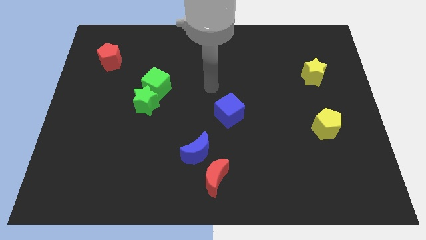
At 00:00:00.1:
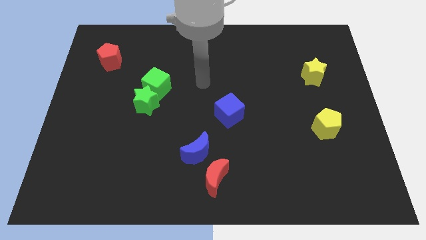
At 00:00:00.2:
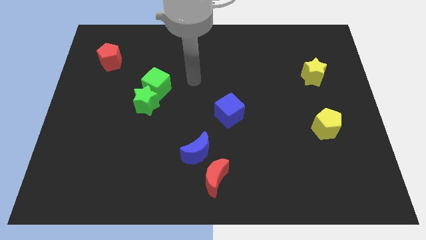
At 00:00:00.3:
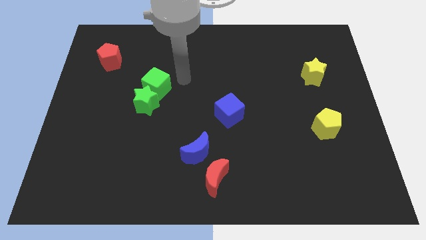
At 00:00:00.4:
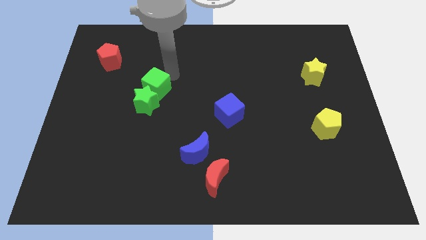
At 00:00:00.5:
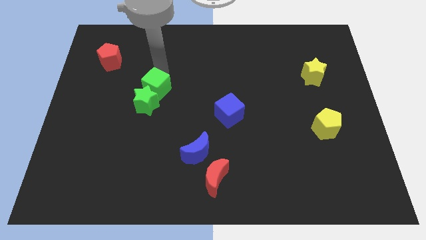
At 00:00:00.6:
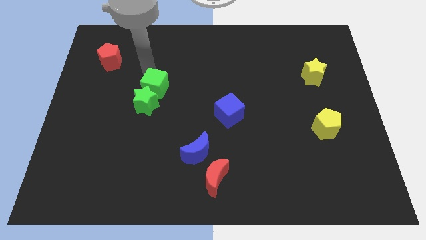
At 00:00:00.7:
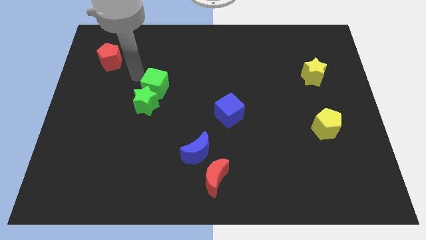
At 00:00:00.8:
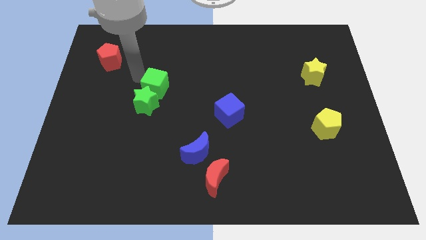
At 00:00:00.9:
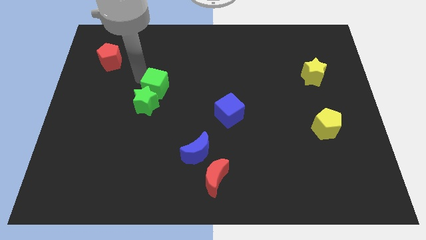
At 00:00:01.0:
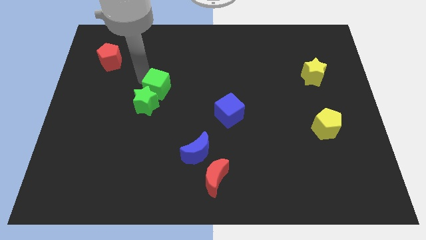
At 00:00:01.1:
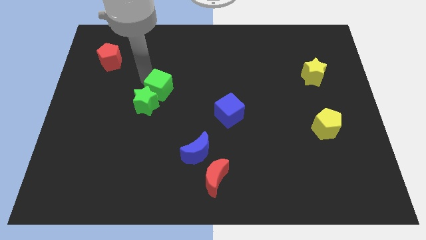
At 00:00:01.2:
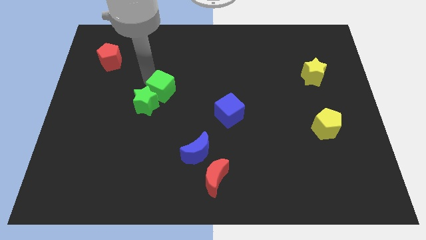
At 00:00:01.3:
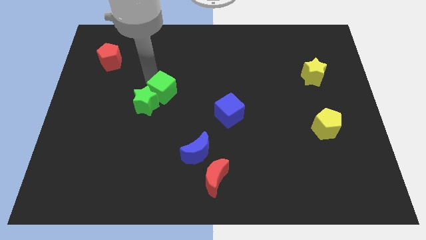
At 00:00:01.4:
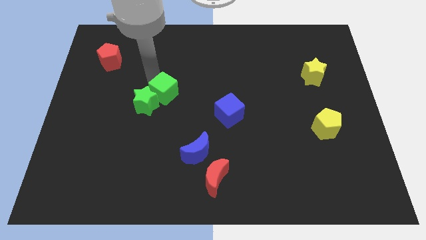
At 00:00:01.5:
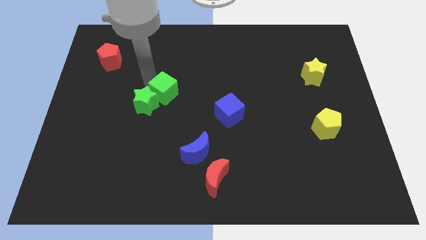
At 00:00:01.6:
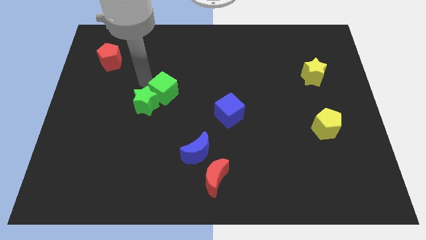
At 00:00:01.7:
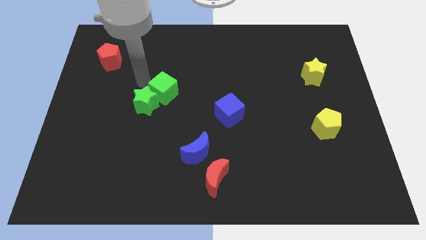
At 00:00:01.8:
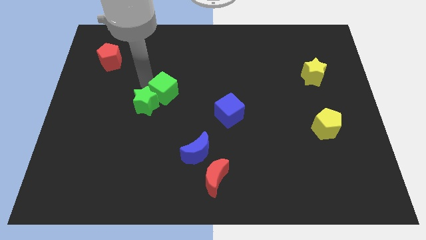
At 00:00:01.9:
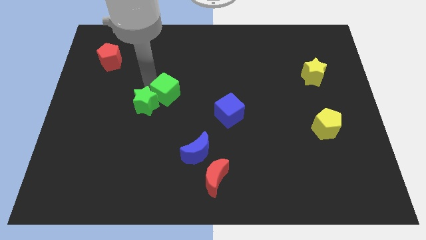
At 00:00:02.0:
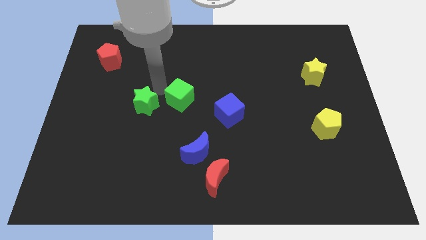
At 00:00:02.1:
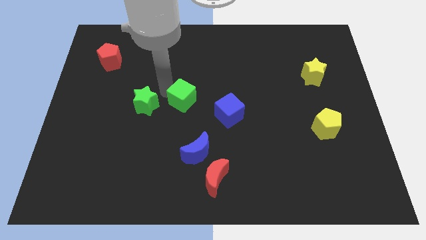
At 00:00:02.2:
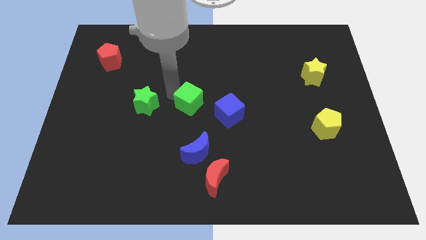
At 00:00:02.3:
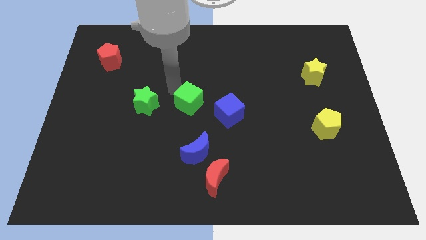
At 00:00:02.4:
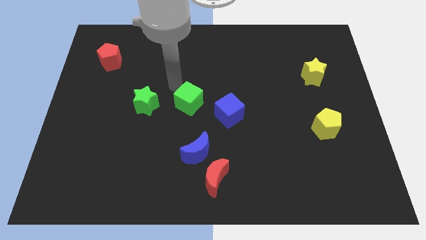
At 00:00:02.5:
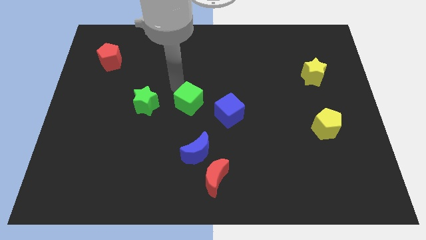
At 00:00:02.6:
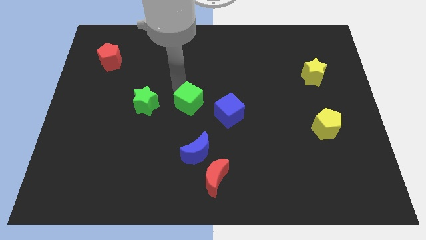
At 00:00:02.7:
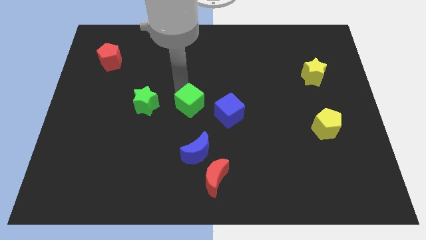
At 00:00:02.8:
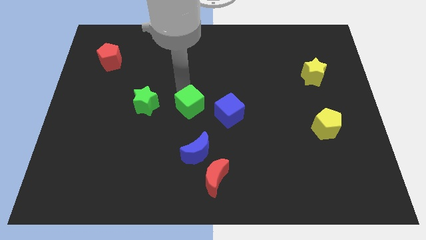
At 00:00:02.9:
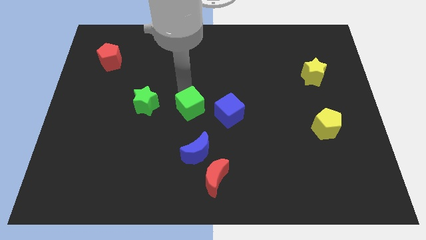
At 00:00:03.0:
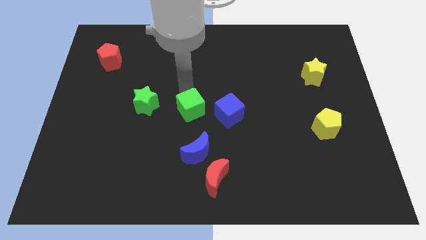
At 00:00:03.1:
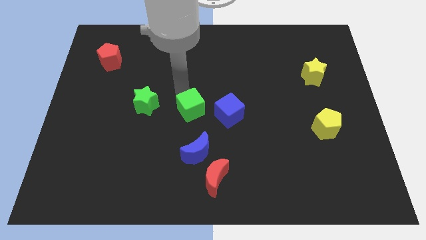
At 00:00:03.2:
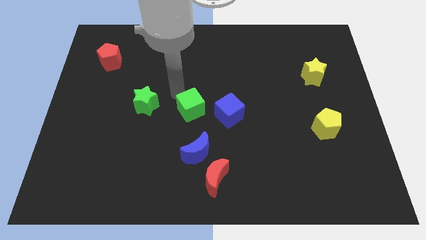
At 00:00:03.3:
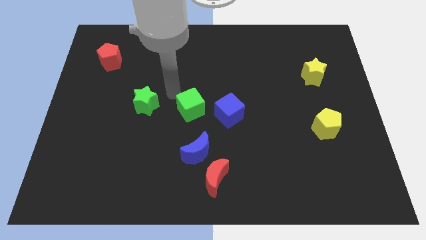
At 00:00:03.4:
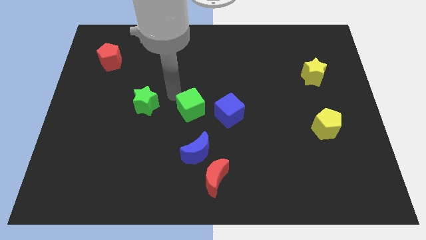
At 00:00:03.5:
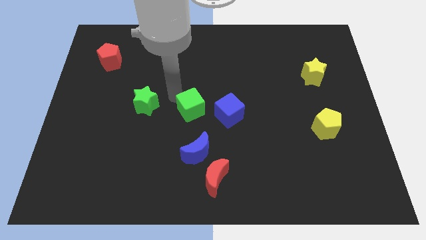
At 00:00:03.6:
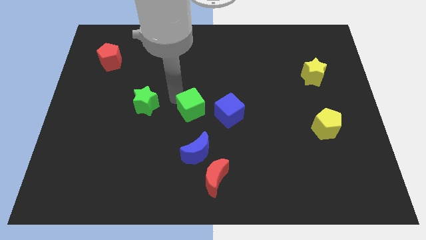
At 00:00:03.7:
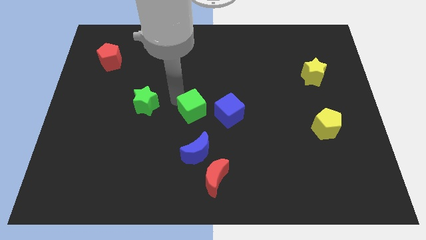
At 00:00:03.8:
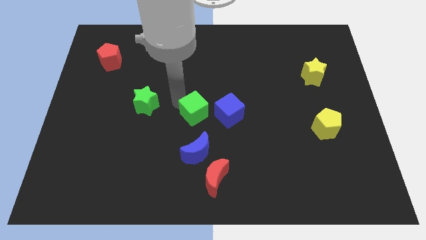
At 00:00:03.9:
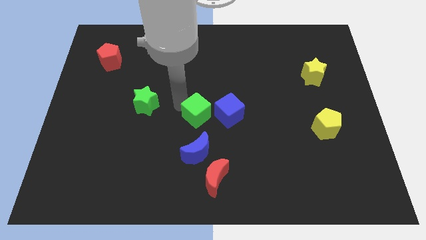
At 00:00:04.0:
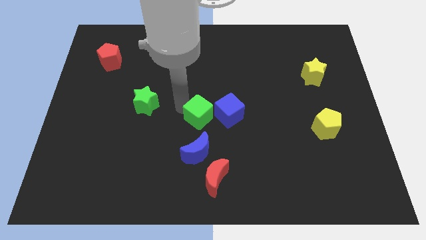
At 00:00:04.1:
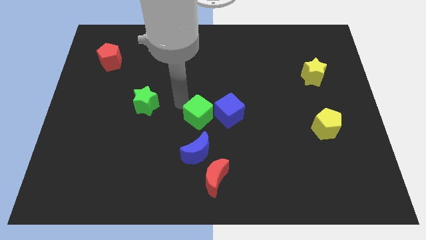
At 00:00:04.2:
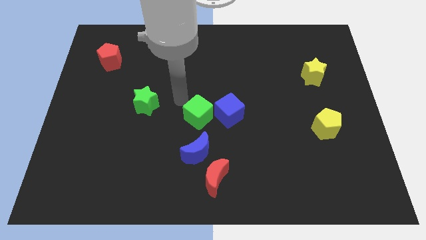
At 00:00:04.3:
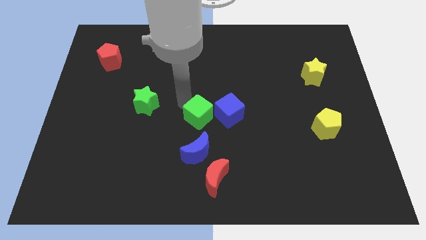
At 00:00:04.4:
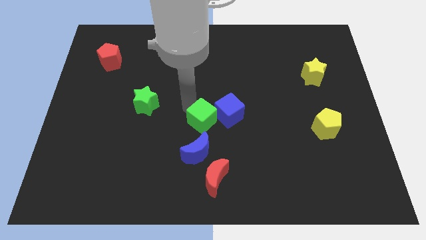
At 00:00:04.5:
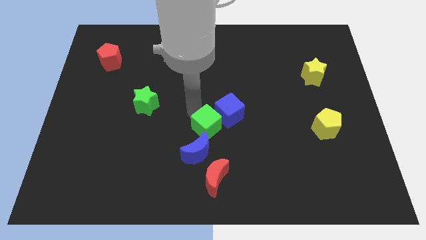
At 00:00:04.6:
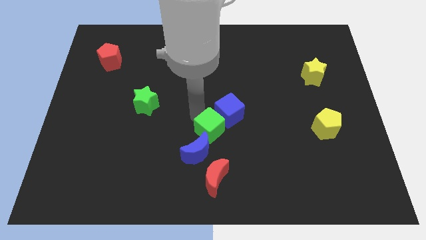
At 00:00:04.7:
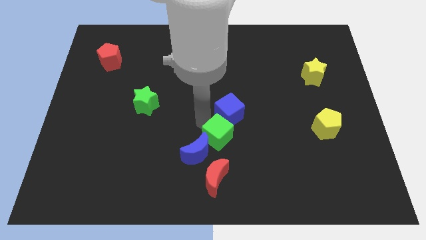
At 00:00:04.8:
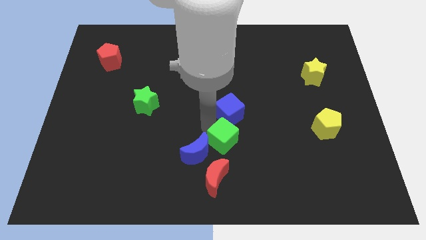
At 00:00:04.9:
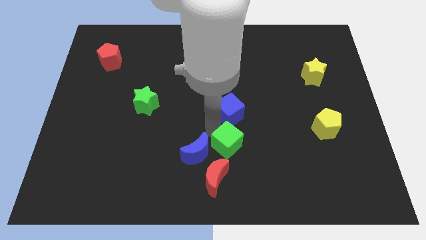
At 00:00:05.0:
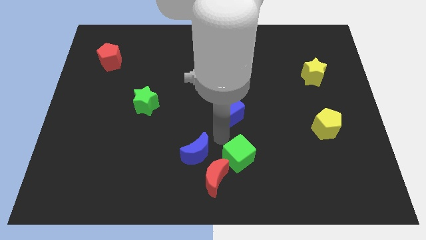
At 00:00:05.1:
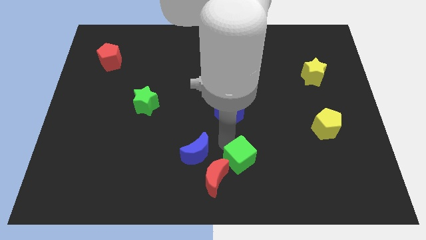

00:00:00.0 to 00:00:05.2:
slide the green cube to the right side of the red moon

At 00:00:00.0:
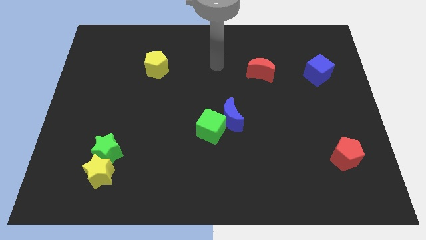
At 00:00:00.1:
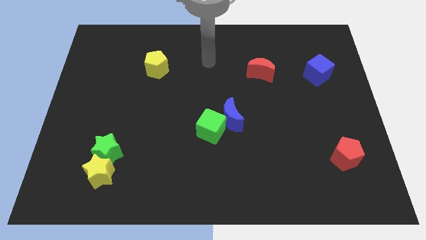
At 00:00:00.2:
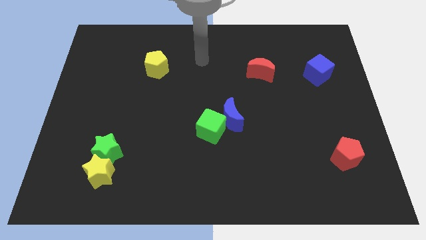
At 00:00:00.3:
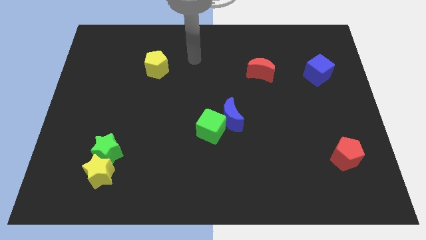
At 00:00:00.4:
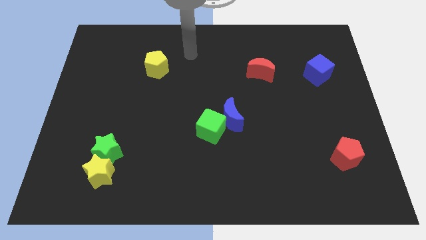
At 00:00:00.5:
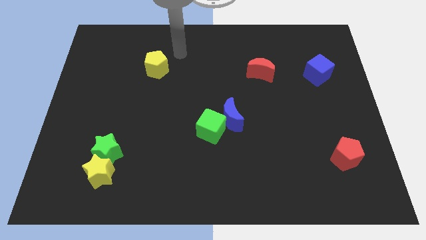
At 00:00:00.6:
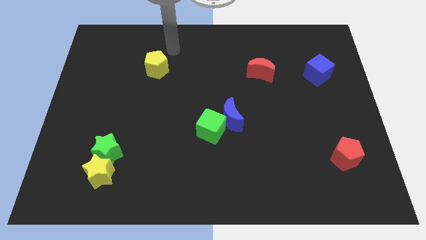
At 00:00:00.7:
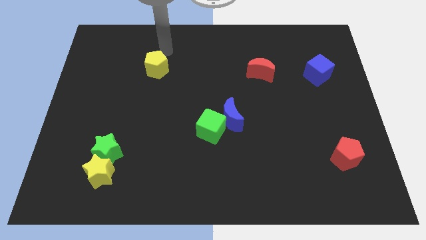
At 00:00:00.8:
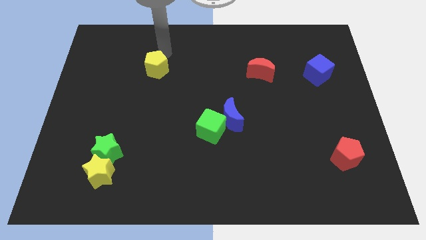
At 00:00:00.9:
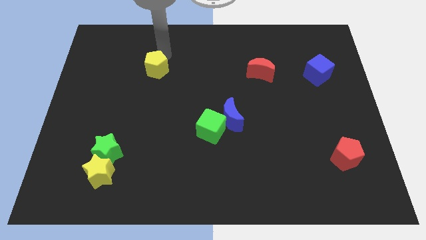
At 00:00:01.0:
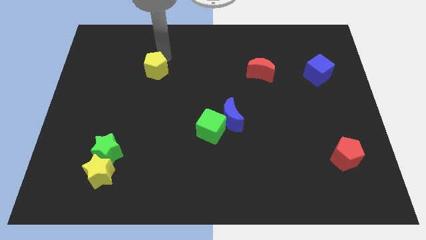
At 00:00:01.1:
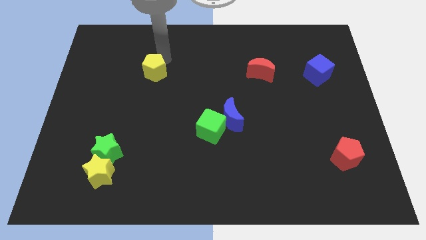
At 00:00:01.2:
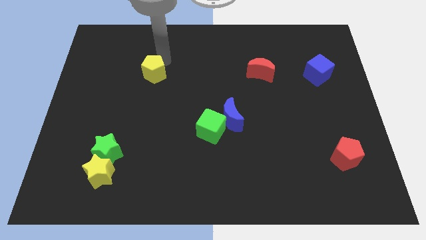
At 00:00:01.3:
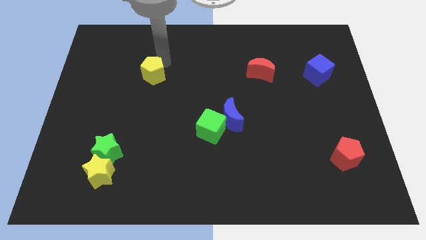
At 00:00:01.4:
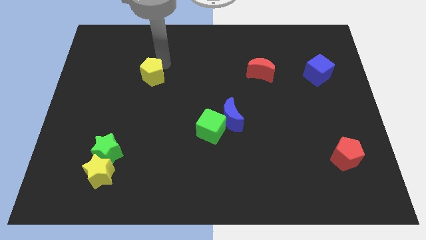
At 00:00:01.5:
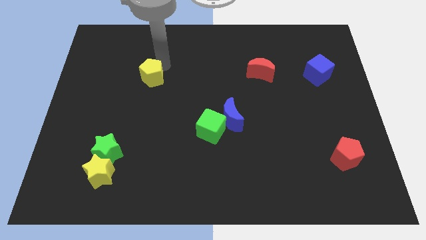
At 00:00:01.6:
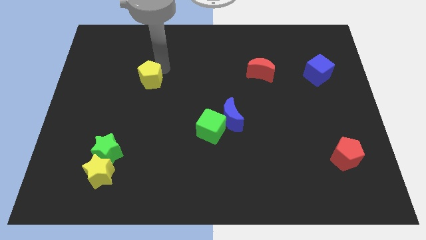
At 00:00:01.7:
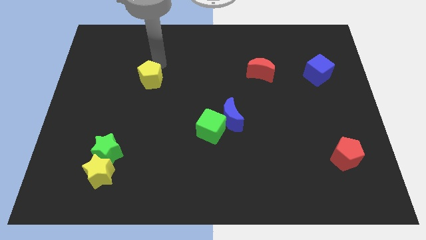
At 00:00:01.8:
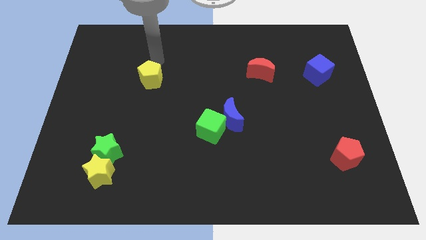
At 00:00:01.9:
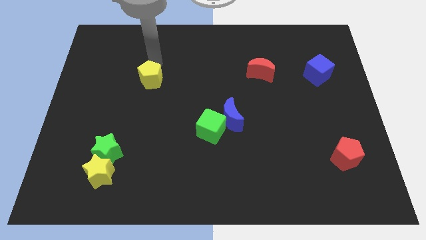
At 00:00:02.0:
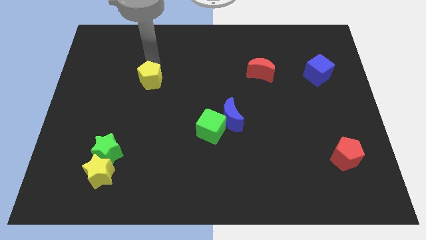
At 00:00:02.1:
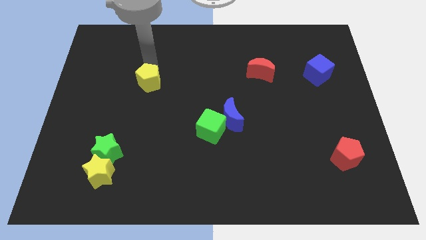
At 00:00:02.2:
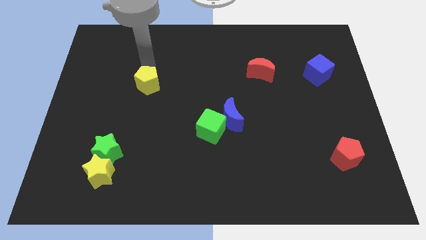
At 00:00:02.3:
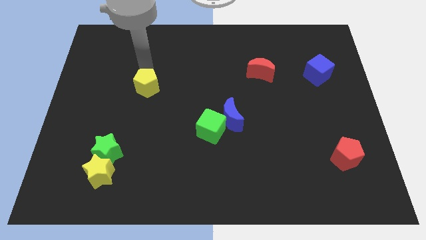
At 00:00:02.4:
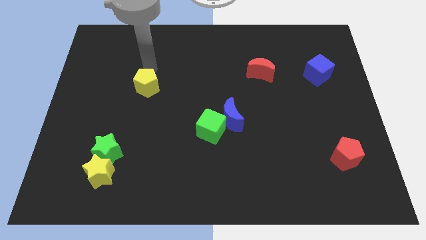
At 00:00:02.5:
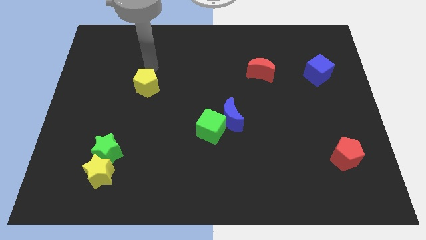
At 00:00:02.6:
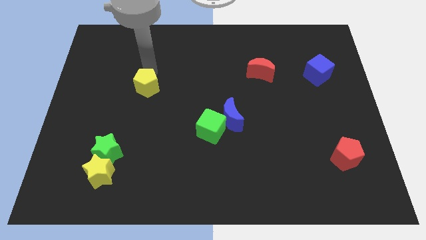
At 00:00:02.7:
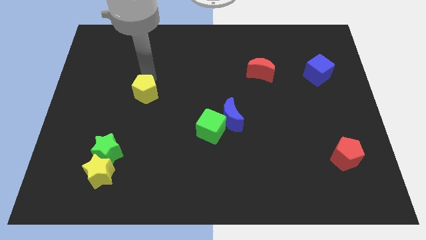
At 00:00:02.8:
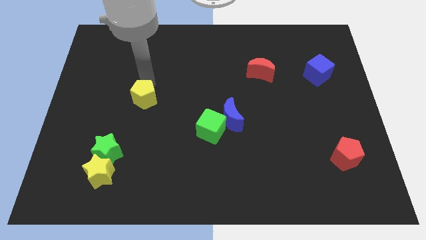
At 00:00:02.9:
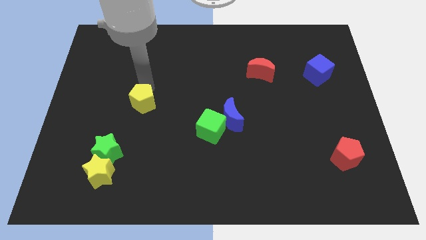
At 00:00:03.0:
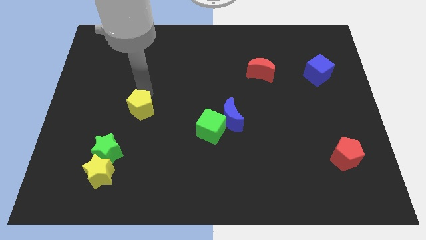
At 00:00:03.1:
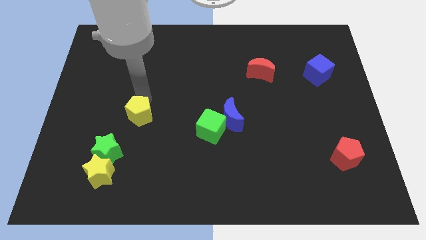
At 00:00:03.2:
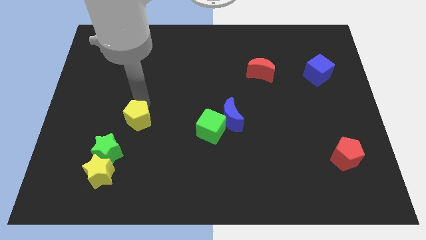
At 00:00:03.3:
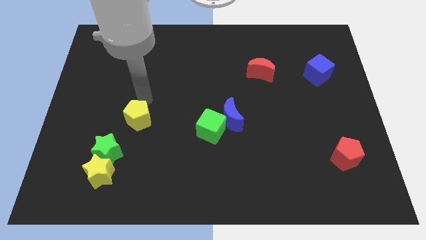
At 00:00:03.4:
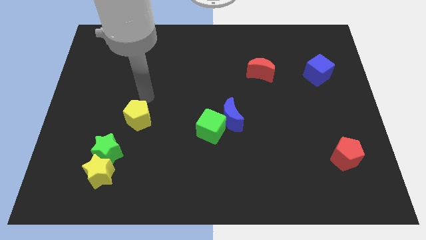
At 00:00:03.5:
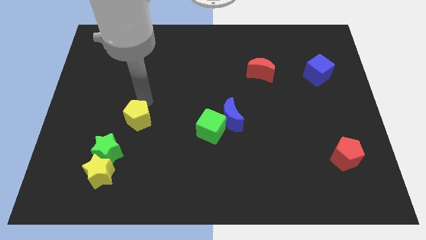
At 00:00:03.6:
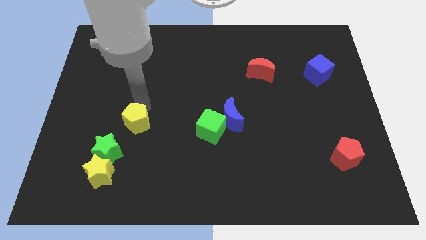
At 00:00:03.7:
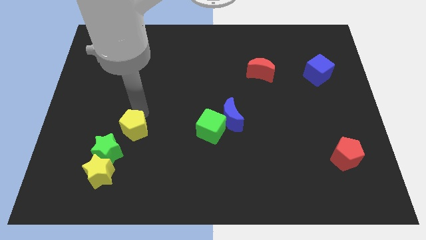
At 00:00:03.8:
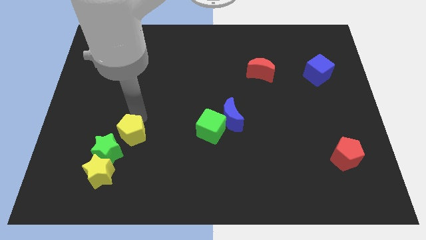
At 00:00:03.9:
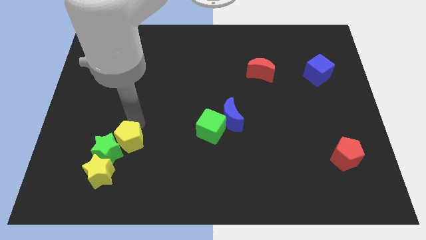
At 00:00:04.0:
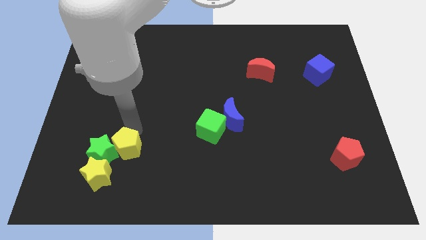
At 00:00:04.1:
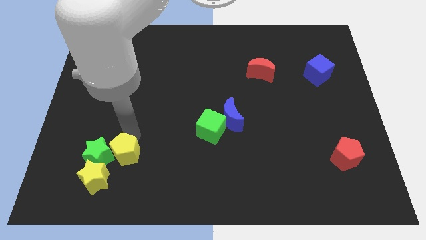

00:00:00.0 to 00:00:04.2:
slide the yellow pentagon to the bottom right side of the green star
